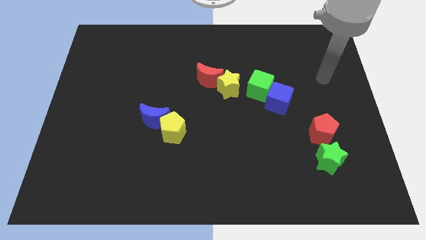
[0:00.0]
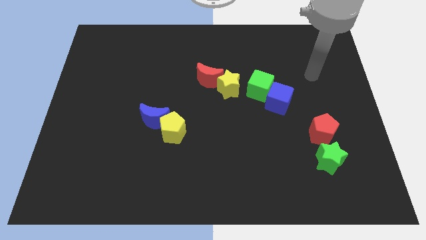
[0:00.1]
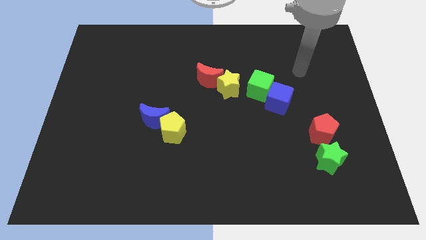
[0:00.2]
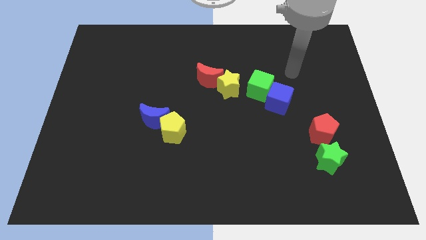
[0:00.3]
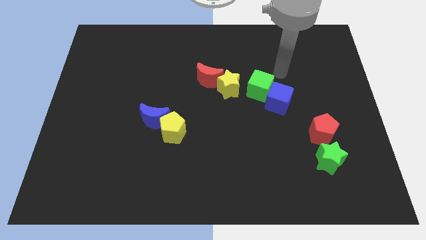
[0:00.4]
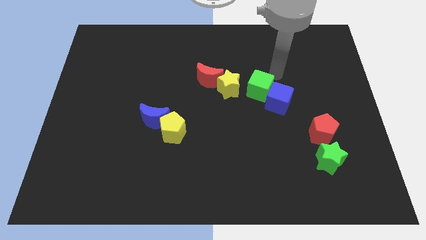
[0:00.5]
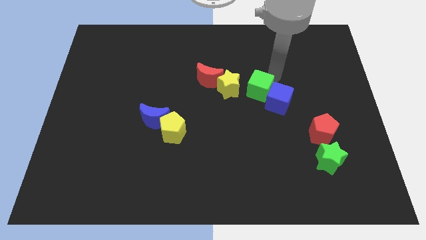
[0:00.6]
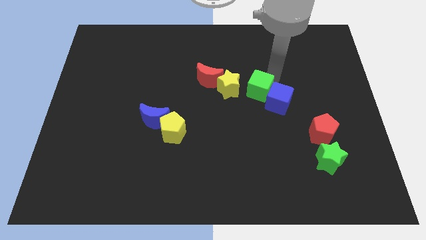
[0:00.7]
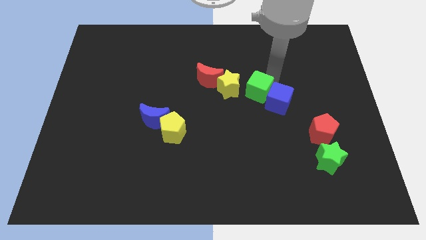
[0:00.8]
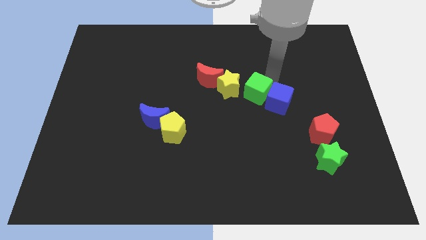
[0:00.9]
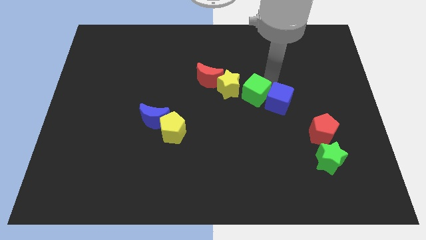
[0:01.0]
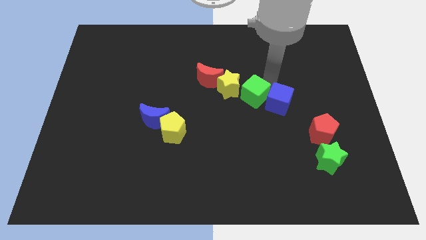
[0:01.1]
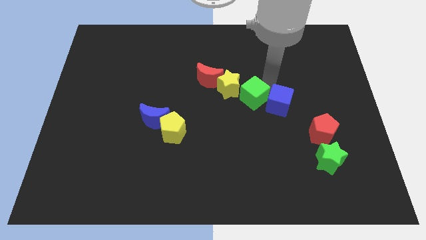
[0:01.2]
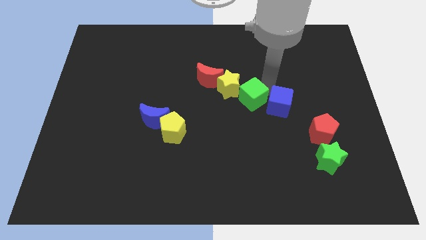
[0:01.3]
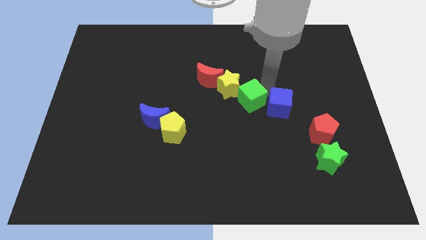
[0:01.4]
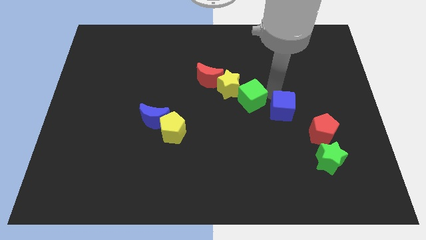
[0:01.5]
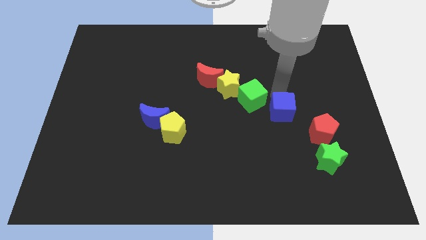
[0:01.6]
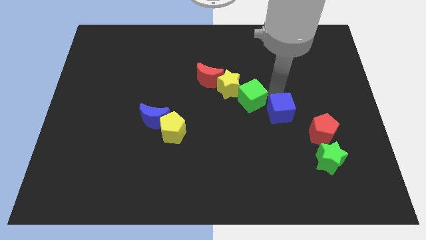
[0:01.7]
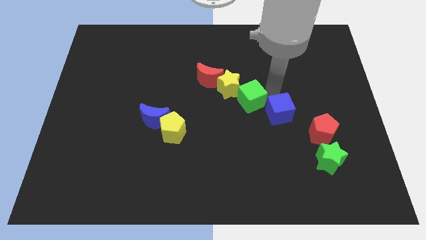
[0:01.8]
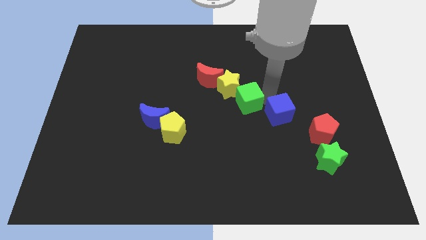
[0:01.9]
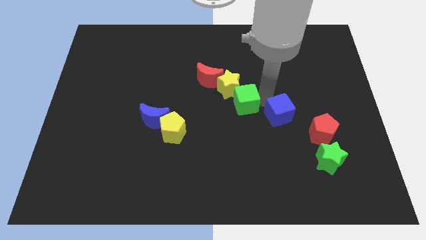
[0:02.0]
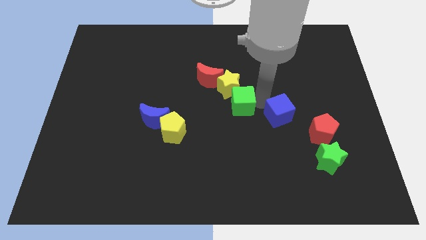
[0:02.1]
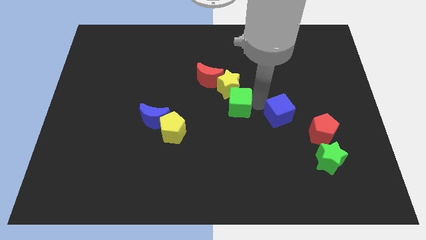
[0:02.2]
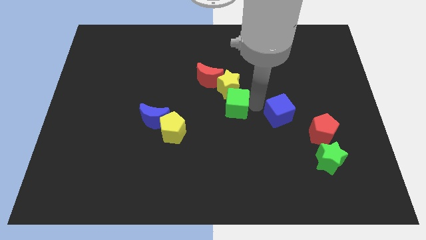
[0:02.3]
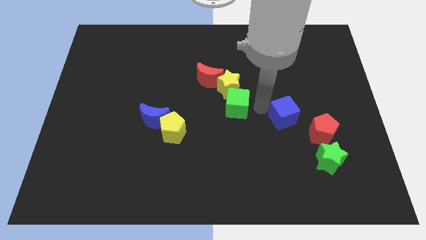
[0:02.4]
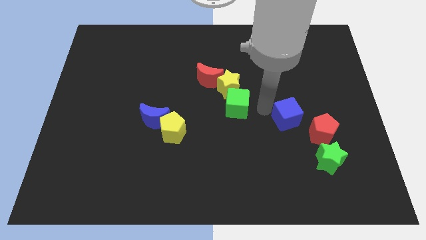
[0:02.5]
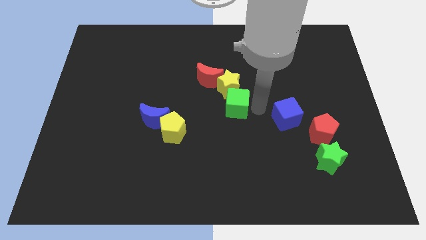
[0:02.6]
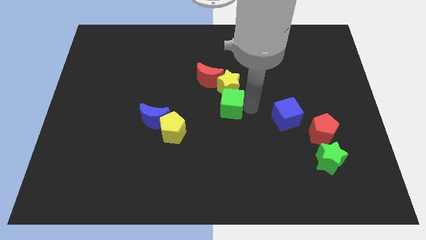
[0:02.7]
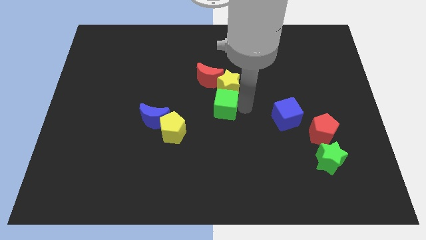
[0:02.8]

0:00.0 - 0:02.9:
slightly slide the green cube to the left

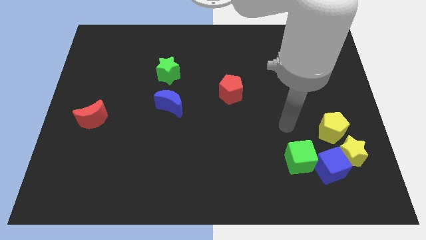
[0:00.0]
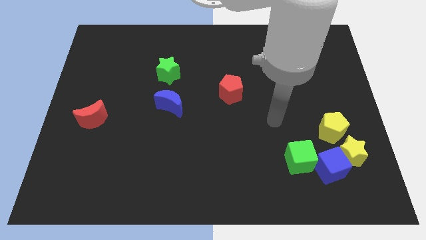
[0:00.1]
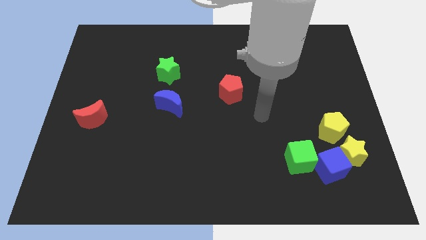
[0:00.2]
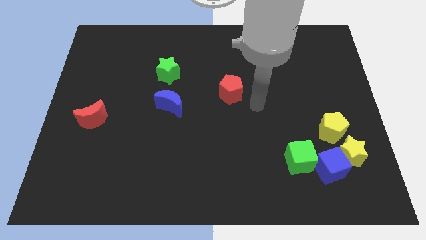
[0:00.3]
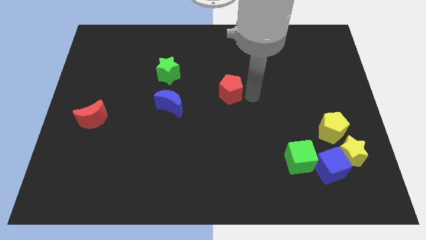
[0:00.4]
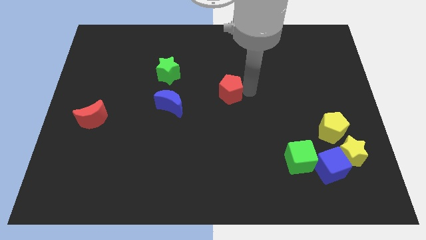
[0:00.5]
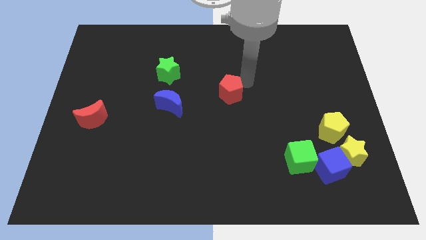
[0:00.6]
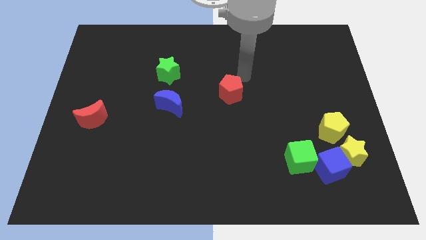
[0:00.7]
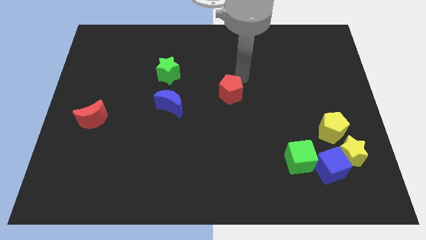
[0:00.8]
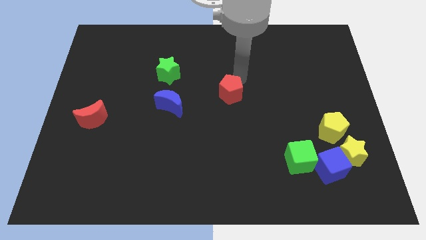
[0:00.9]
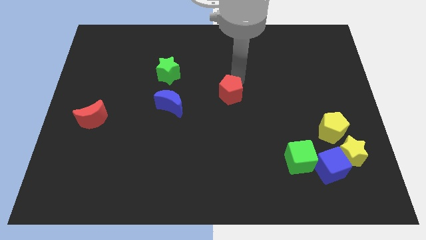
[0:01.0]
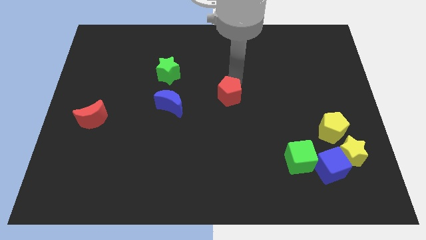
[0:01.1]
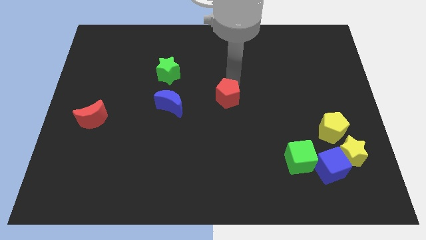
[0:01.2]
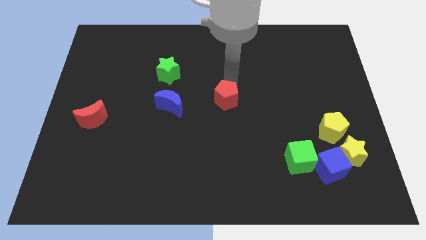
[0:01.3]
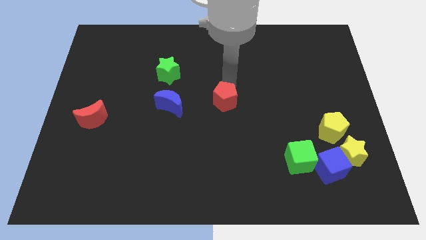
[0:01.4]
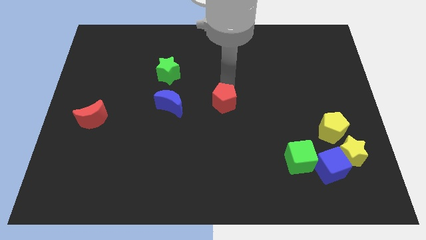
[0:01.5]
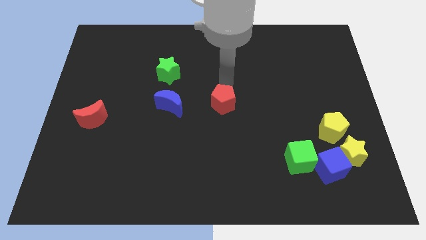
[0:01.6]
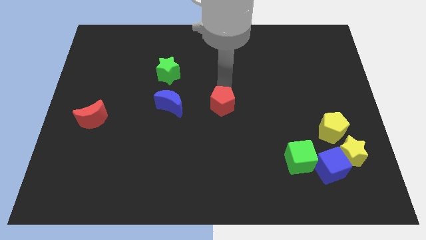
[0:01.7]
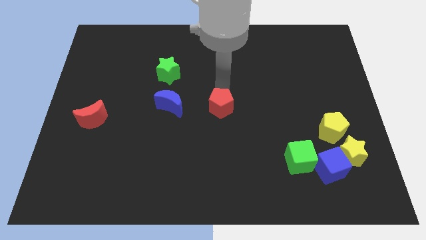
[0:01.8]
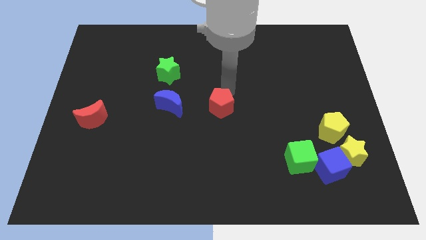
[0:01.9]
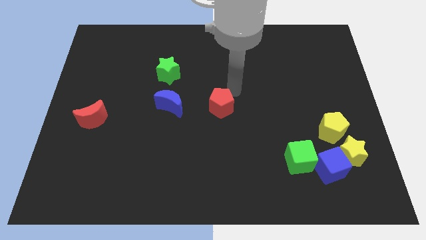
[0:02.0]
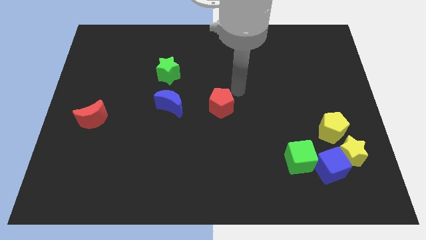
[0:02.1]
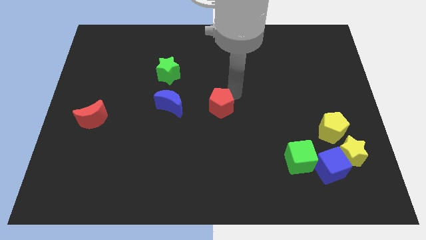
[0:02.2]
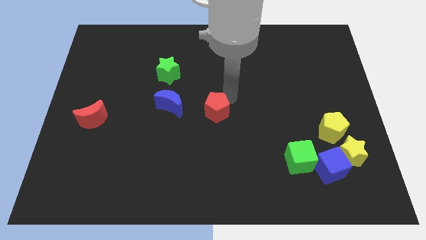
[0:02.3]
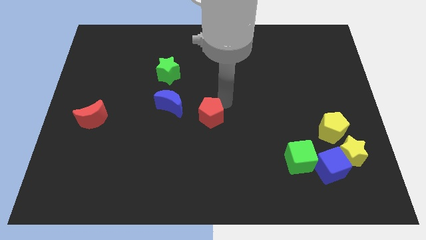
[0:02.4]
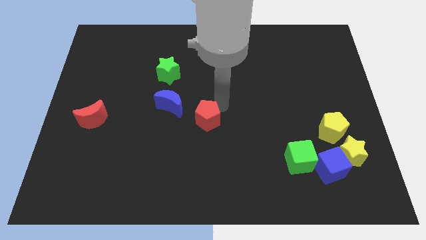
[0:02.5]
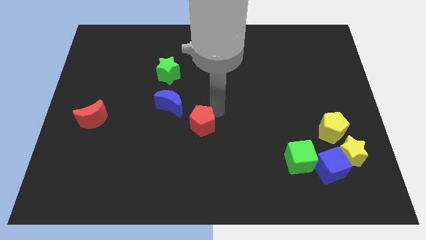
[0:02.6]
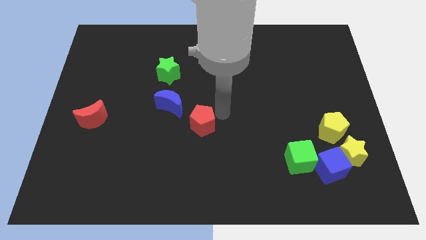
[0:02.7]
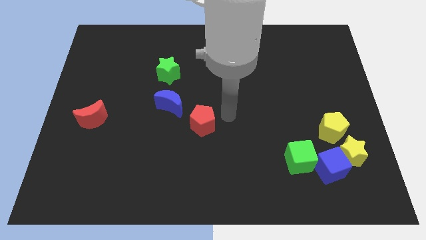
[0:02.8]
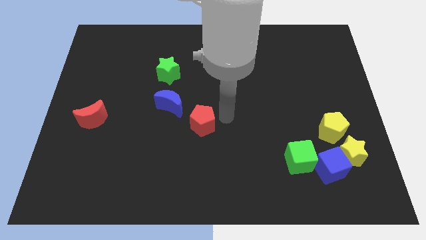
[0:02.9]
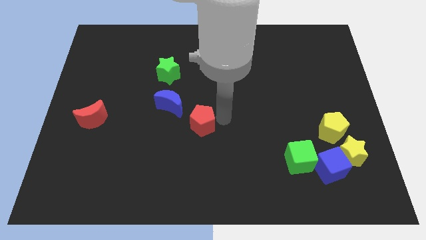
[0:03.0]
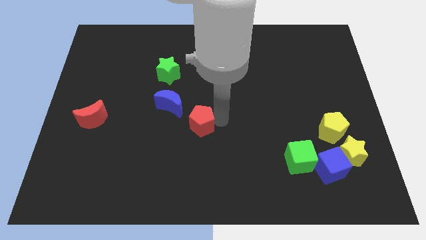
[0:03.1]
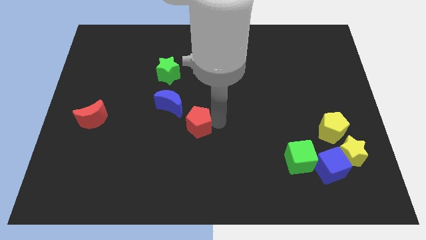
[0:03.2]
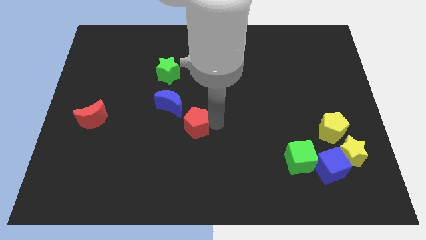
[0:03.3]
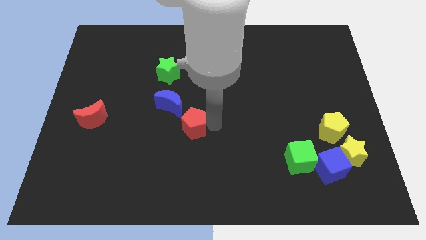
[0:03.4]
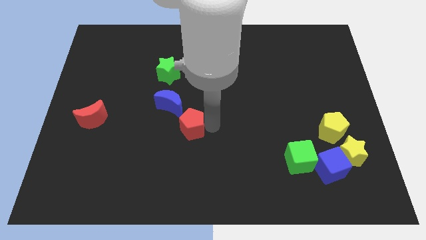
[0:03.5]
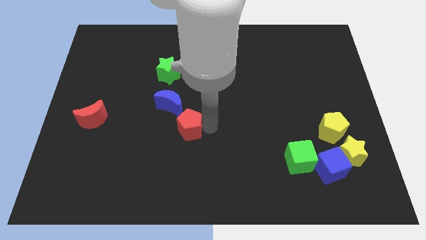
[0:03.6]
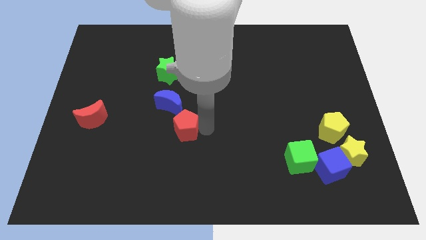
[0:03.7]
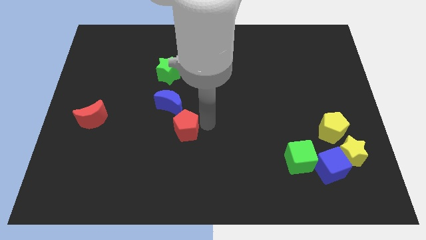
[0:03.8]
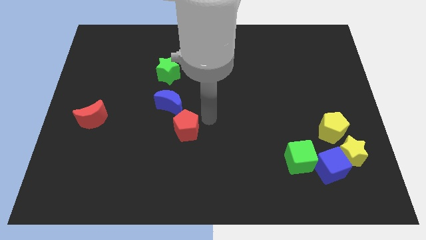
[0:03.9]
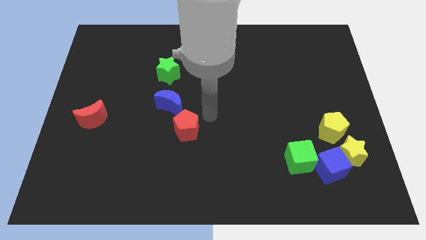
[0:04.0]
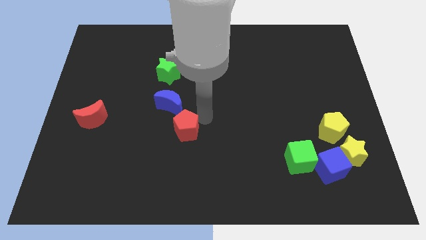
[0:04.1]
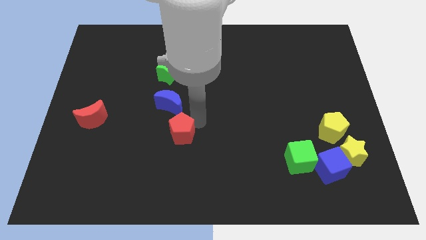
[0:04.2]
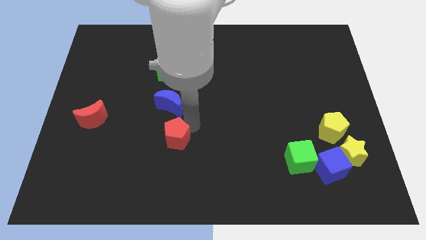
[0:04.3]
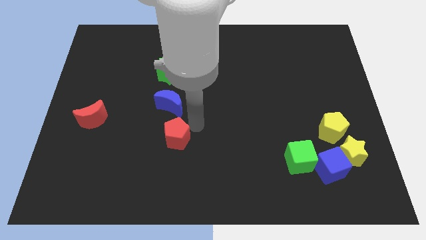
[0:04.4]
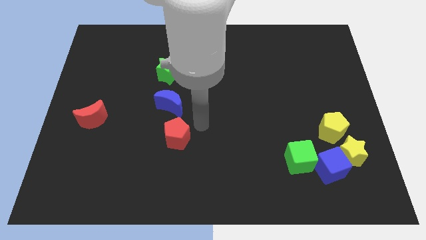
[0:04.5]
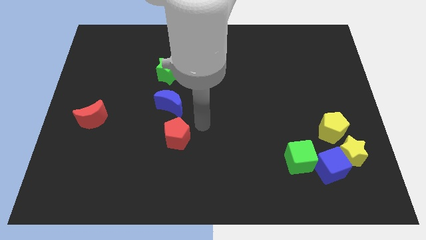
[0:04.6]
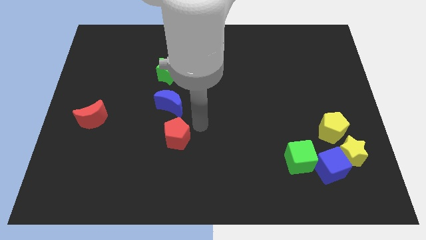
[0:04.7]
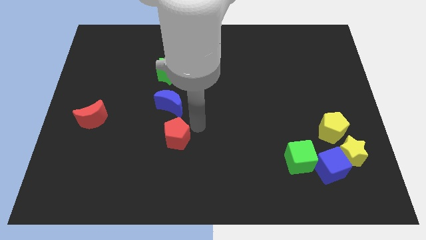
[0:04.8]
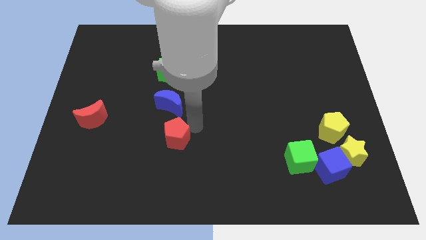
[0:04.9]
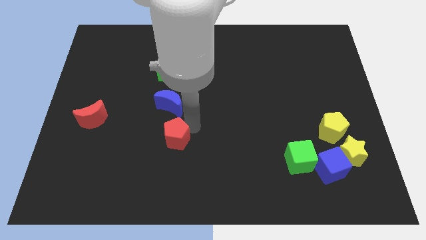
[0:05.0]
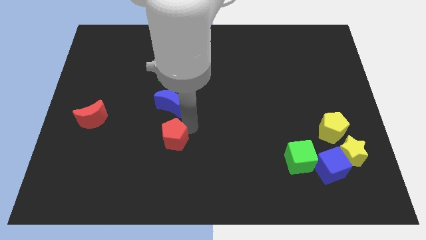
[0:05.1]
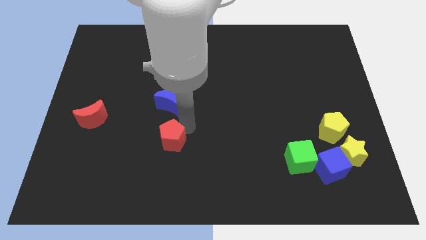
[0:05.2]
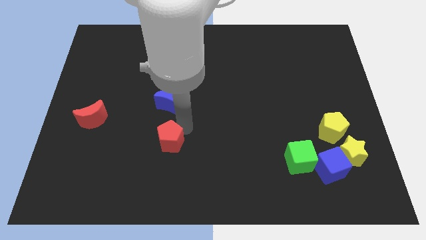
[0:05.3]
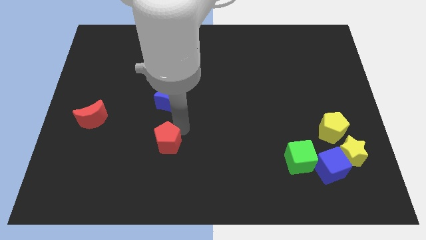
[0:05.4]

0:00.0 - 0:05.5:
push the red pentagon downwards and to the left
